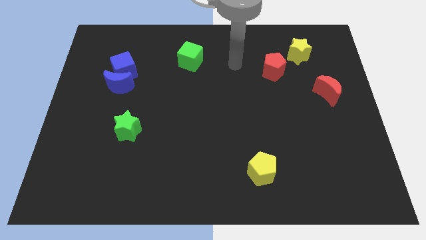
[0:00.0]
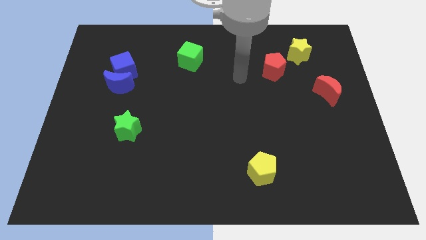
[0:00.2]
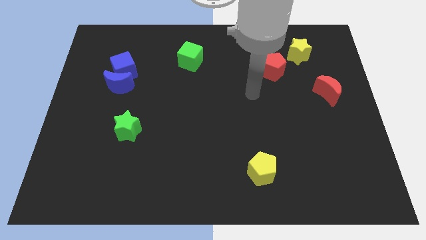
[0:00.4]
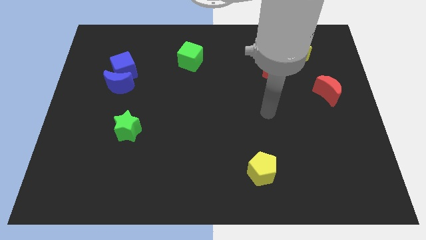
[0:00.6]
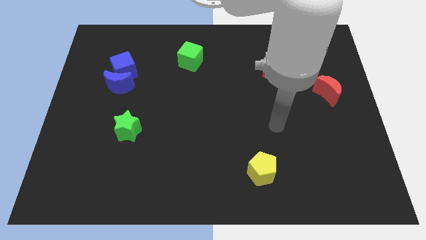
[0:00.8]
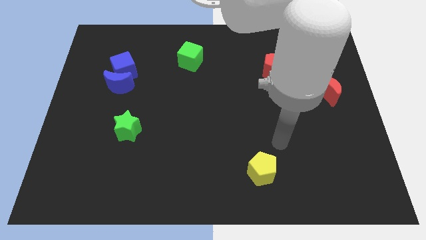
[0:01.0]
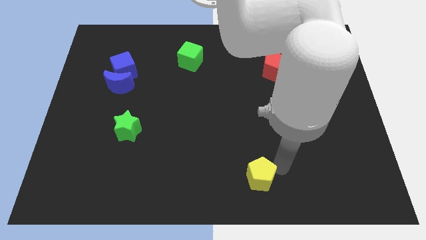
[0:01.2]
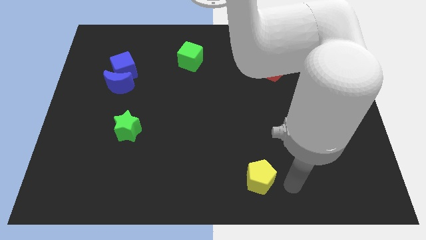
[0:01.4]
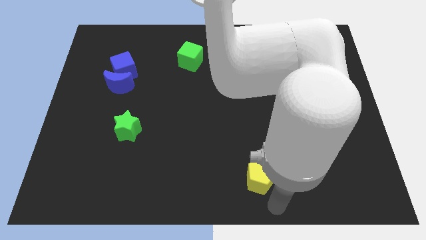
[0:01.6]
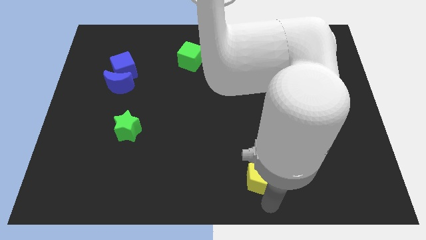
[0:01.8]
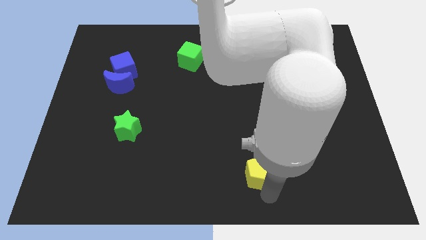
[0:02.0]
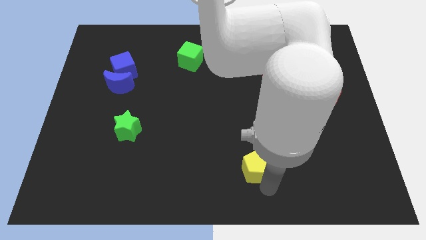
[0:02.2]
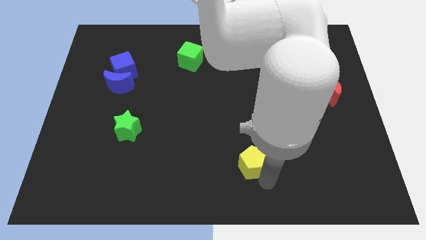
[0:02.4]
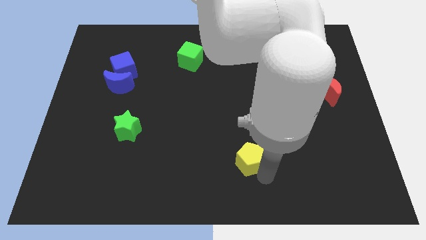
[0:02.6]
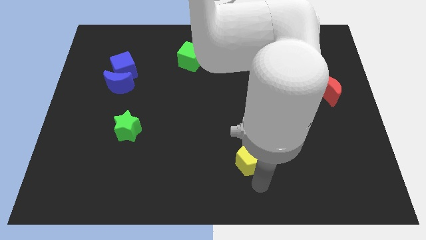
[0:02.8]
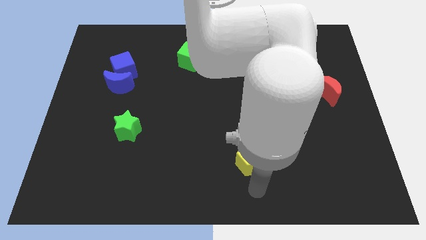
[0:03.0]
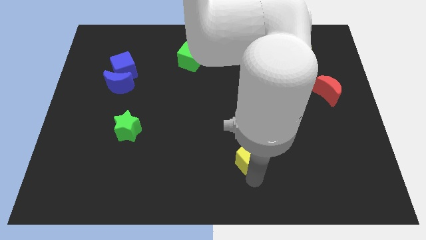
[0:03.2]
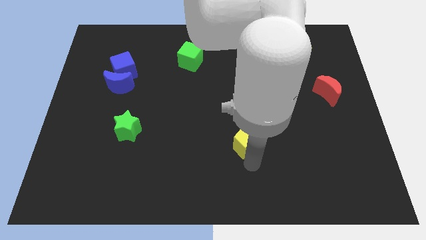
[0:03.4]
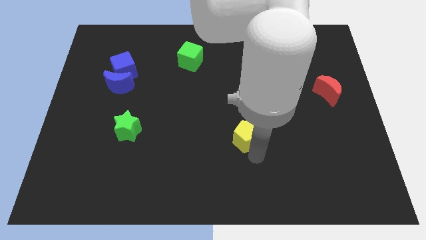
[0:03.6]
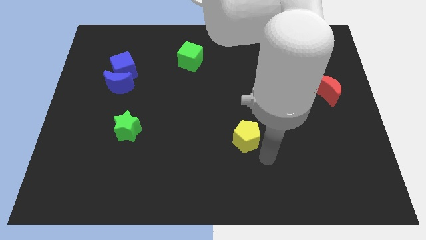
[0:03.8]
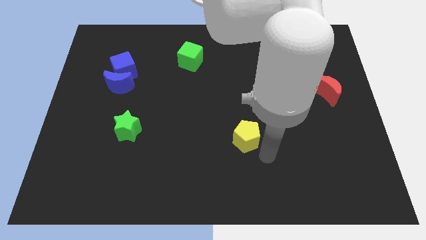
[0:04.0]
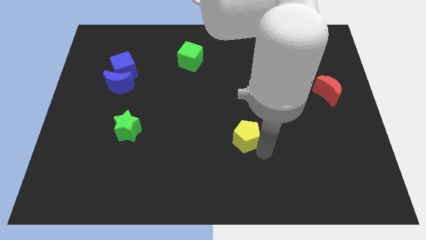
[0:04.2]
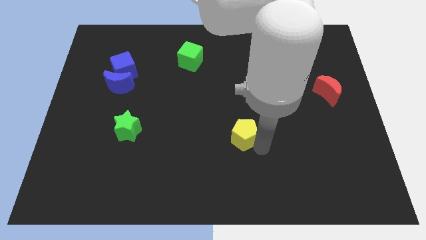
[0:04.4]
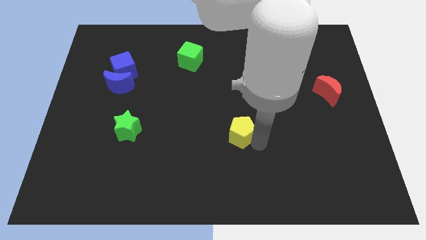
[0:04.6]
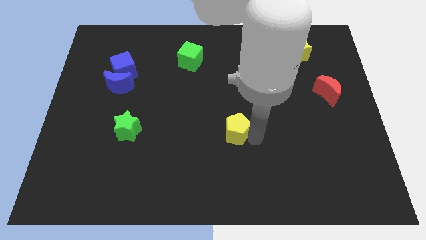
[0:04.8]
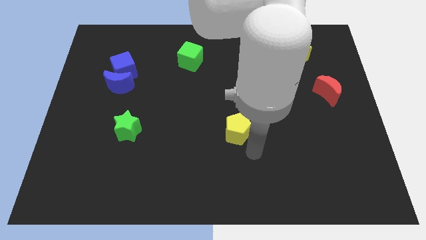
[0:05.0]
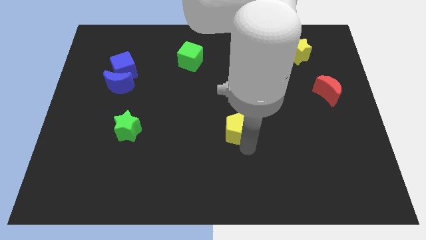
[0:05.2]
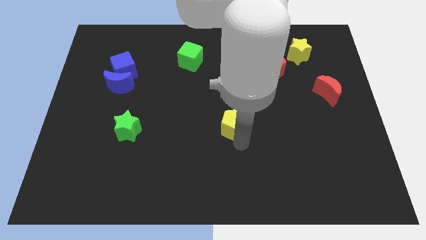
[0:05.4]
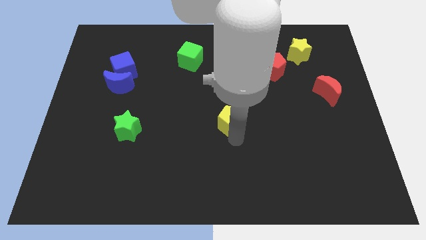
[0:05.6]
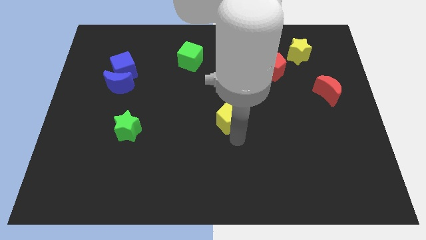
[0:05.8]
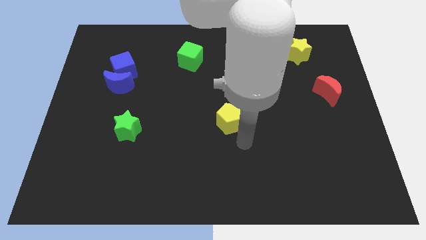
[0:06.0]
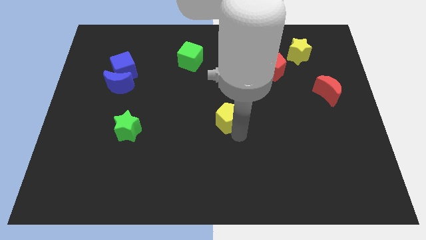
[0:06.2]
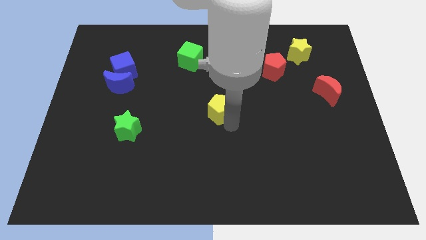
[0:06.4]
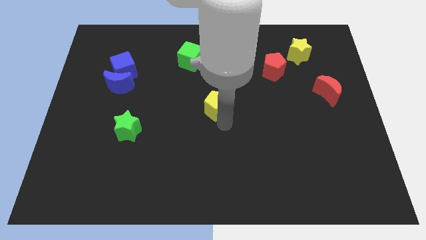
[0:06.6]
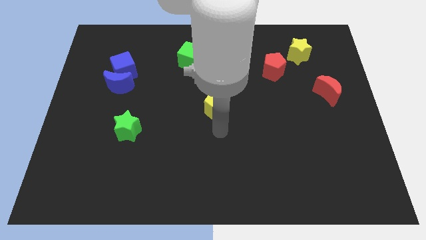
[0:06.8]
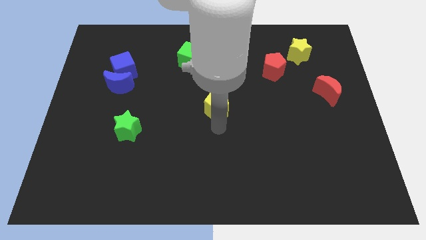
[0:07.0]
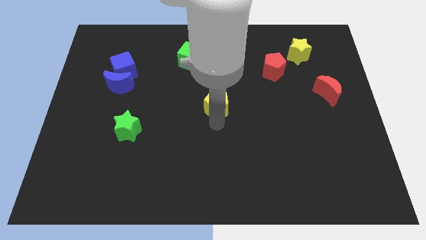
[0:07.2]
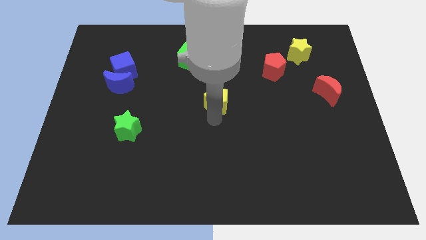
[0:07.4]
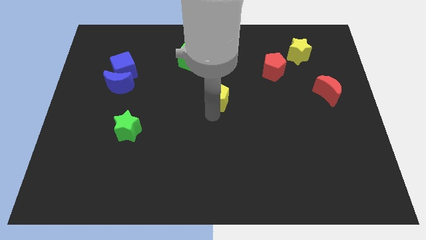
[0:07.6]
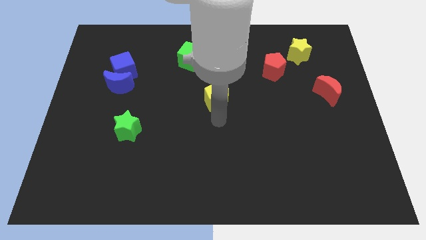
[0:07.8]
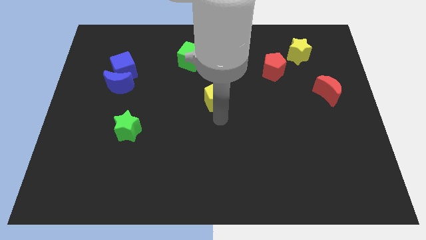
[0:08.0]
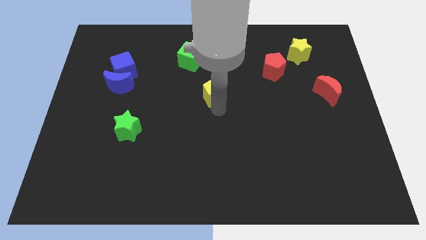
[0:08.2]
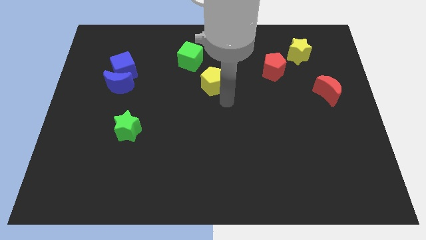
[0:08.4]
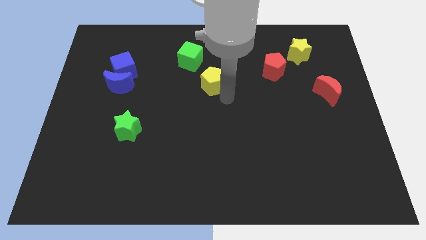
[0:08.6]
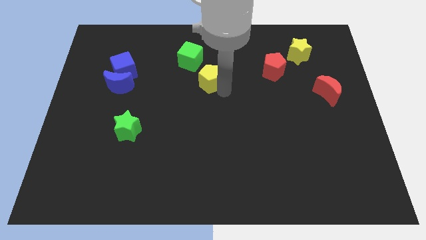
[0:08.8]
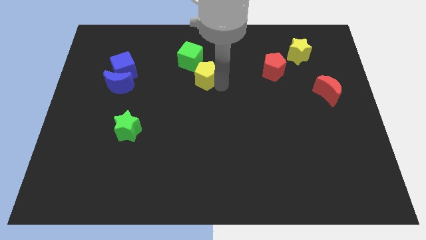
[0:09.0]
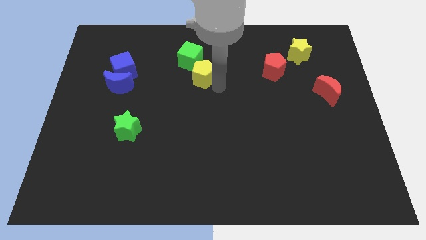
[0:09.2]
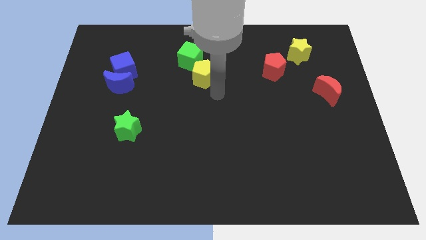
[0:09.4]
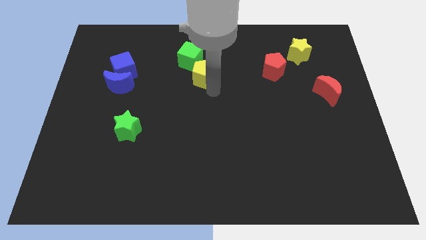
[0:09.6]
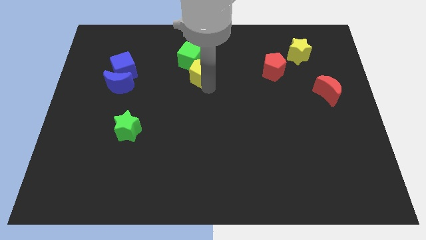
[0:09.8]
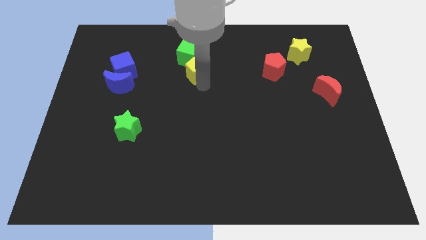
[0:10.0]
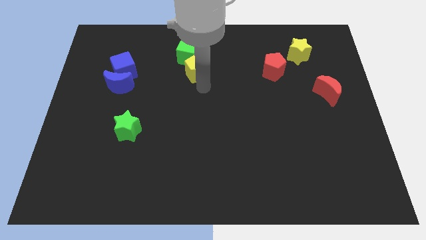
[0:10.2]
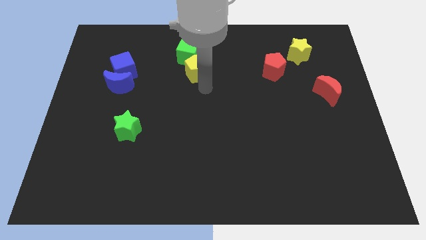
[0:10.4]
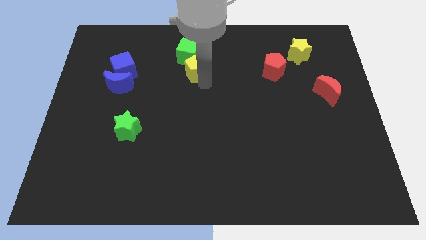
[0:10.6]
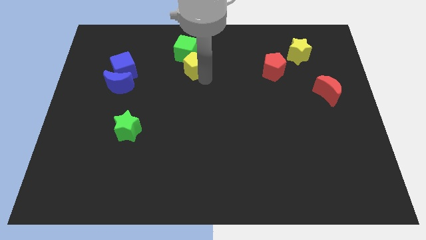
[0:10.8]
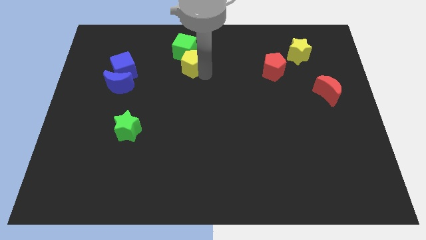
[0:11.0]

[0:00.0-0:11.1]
slide the yellow pentagon next to the green cube

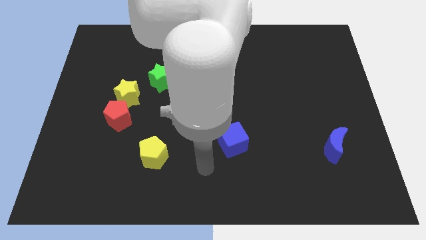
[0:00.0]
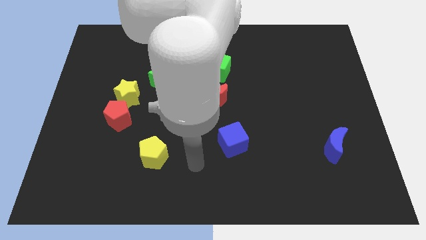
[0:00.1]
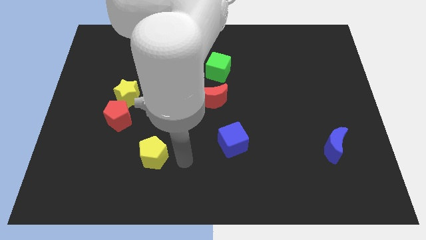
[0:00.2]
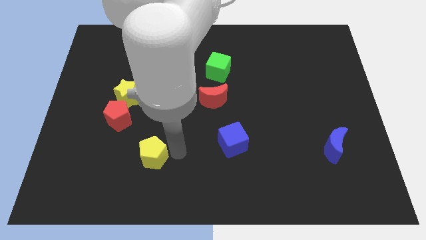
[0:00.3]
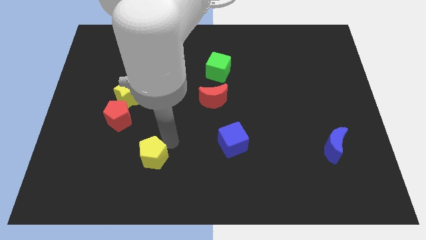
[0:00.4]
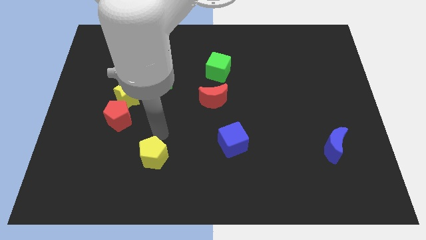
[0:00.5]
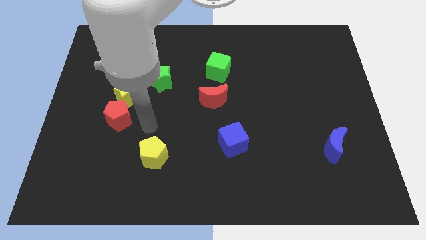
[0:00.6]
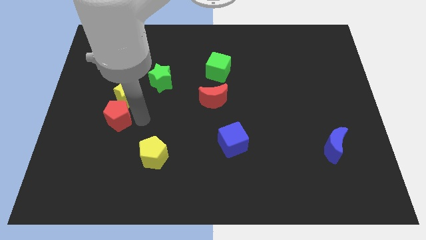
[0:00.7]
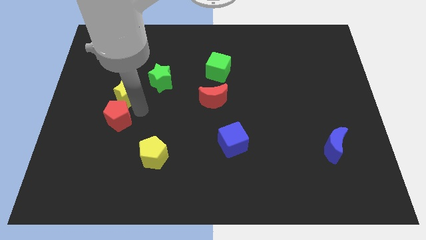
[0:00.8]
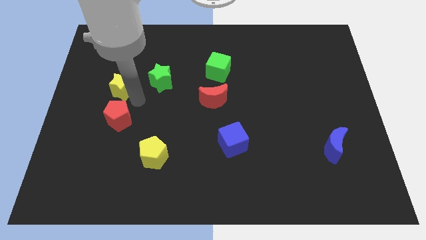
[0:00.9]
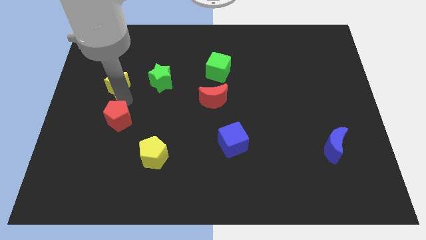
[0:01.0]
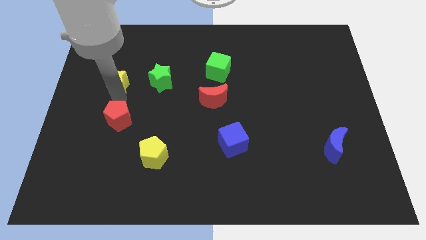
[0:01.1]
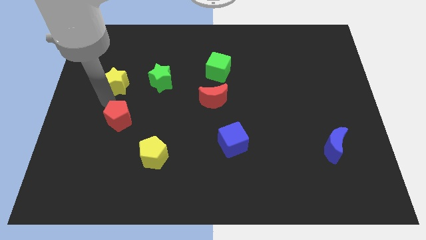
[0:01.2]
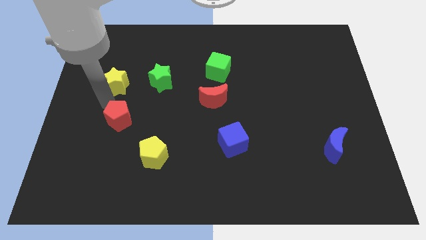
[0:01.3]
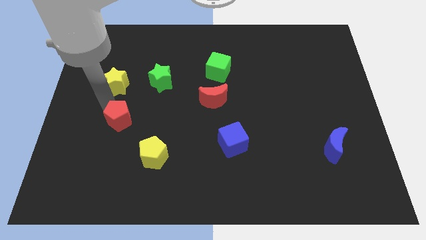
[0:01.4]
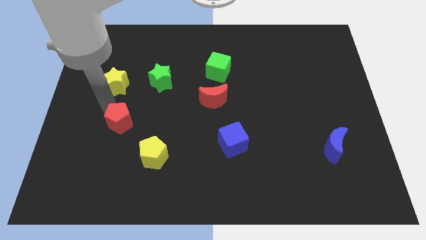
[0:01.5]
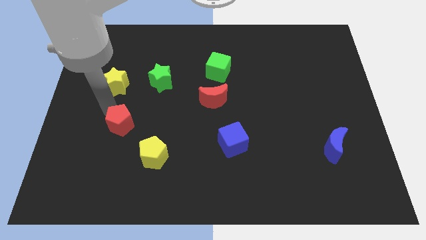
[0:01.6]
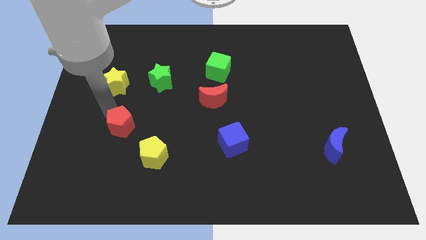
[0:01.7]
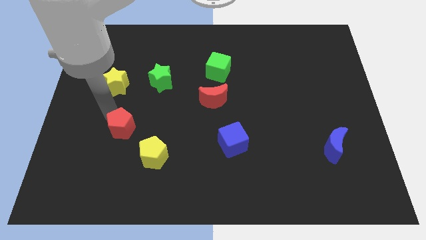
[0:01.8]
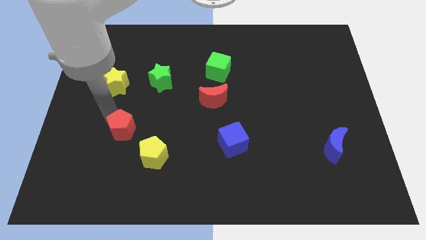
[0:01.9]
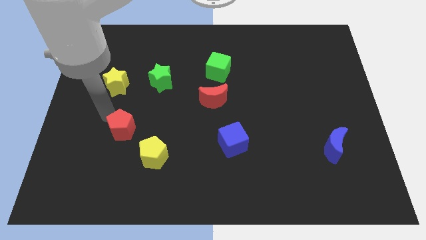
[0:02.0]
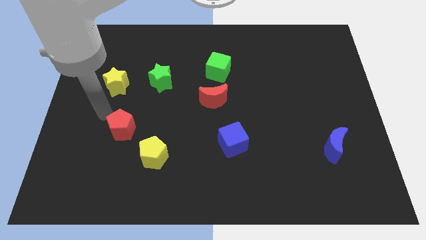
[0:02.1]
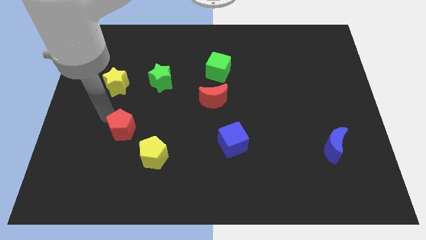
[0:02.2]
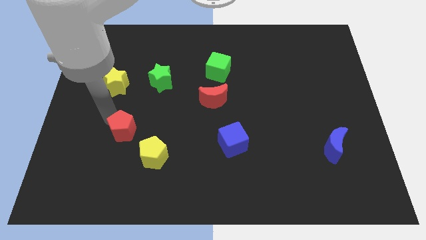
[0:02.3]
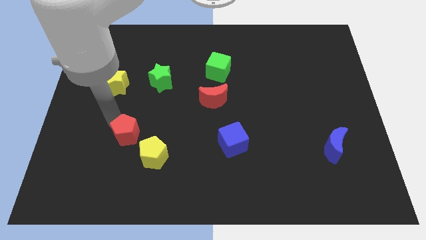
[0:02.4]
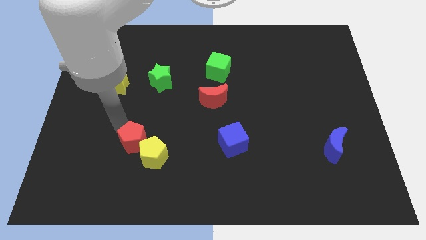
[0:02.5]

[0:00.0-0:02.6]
push the red pentagon next to the yellow pentagon
